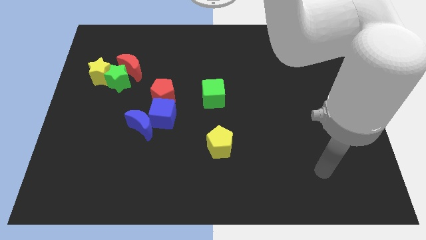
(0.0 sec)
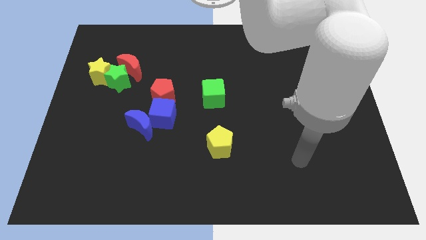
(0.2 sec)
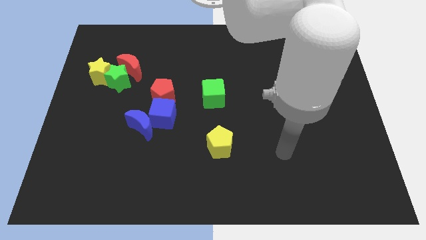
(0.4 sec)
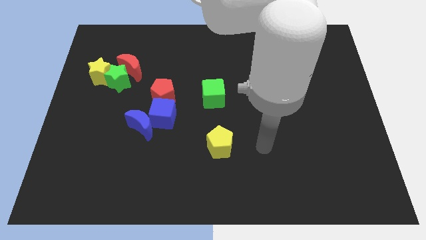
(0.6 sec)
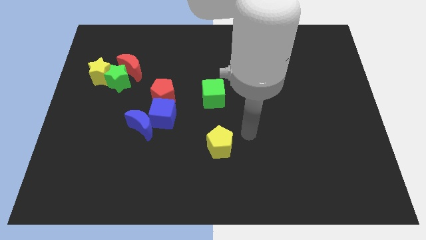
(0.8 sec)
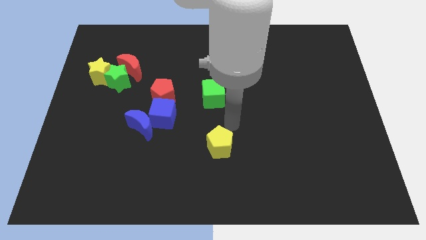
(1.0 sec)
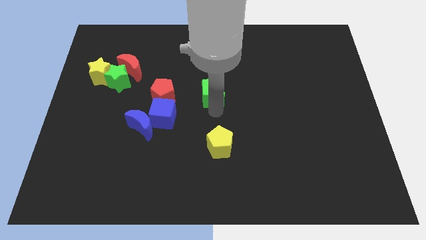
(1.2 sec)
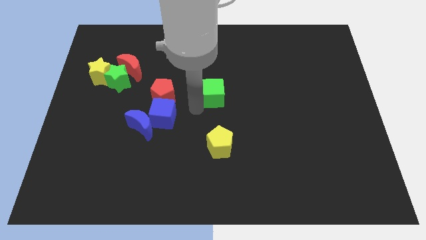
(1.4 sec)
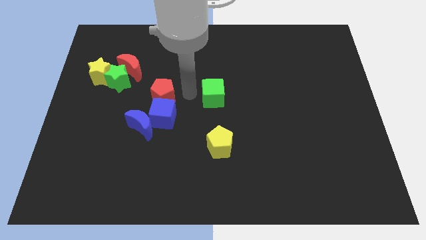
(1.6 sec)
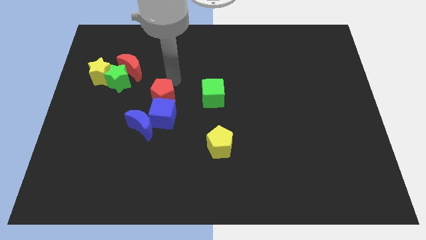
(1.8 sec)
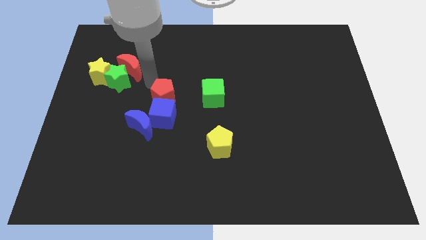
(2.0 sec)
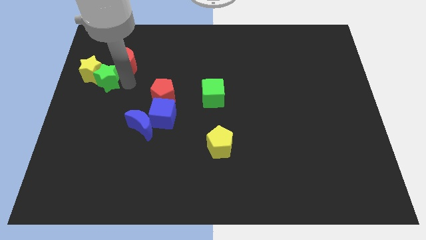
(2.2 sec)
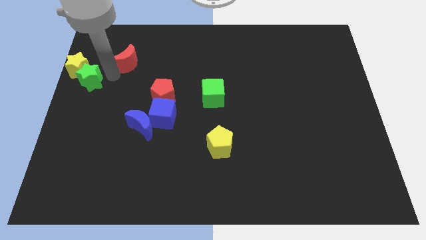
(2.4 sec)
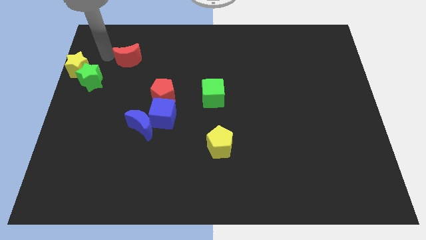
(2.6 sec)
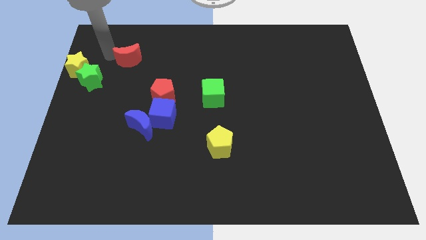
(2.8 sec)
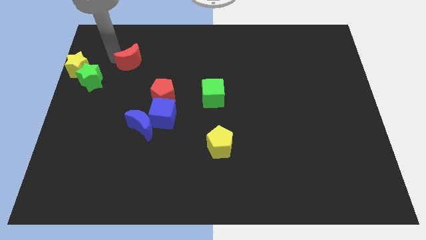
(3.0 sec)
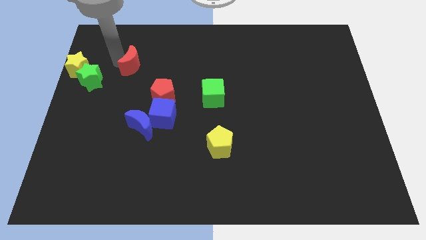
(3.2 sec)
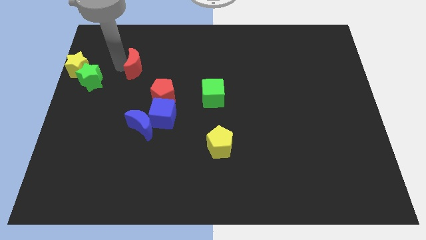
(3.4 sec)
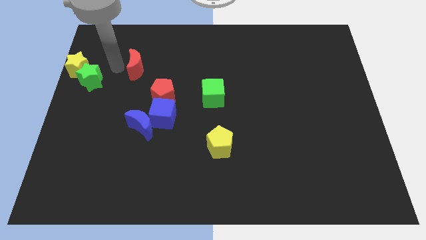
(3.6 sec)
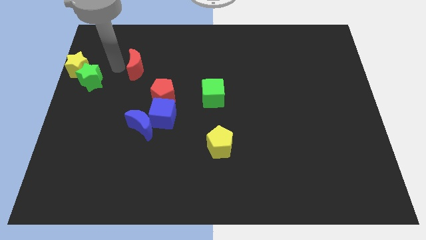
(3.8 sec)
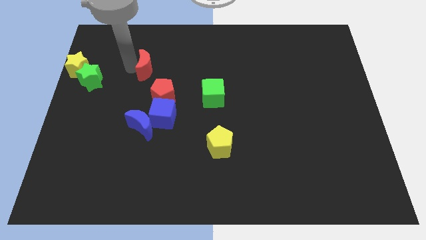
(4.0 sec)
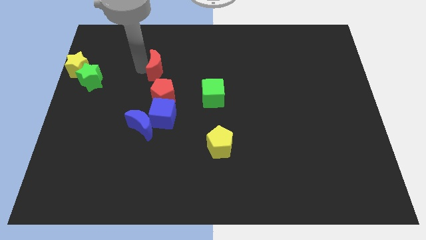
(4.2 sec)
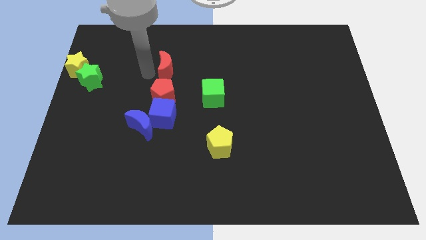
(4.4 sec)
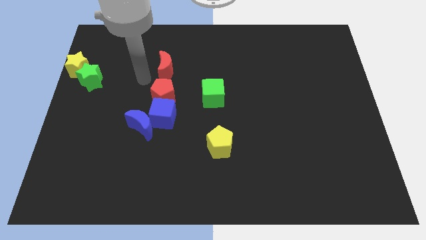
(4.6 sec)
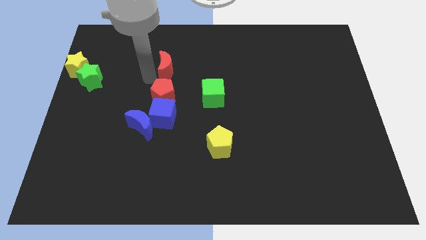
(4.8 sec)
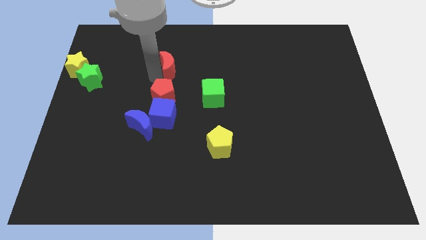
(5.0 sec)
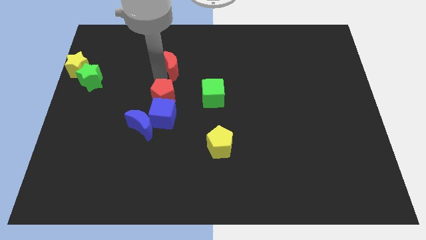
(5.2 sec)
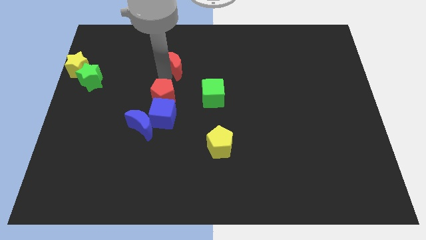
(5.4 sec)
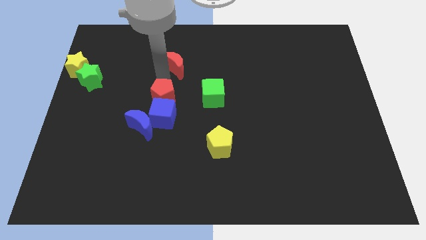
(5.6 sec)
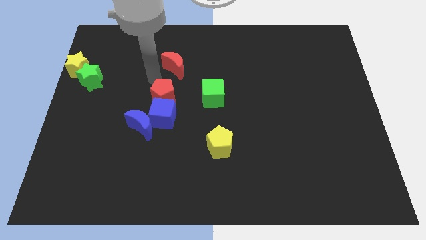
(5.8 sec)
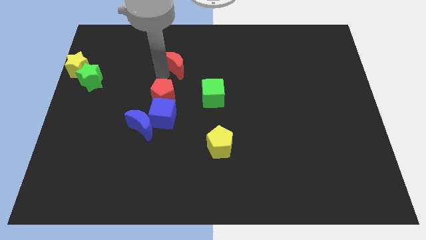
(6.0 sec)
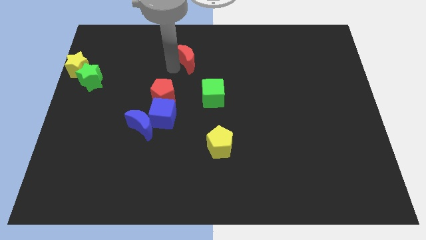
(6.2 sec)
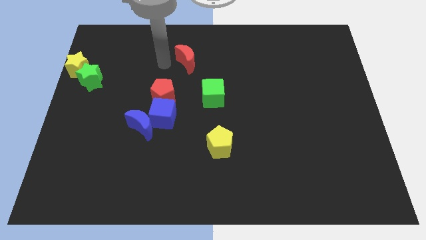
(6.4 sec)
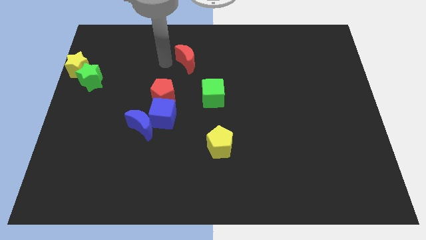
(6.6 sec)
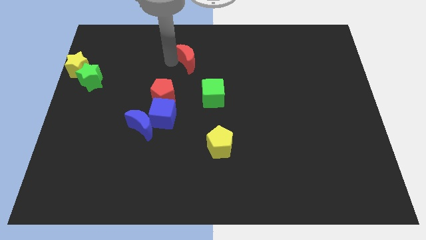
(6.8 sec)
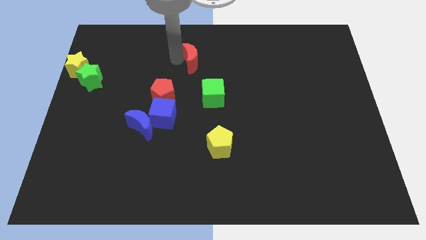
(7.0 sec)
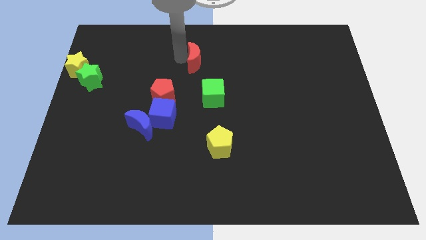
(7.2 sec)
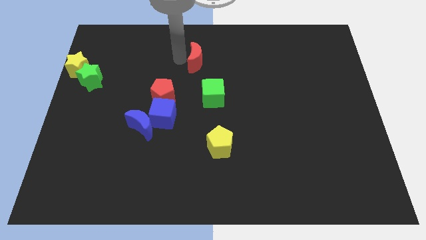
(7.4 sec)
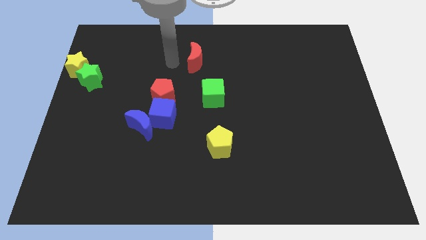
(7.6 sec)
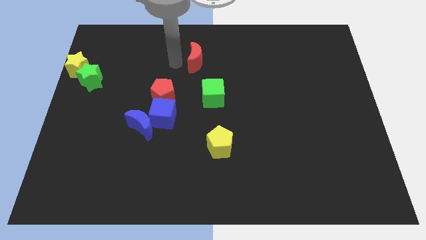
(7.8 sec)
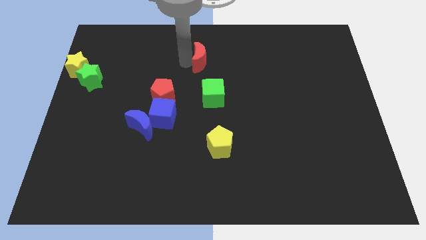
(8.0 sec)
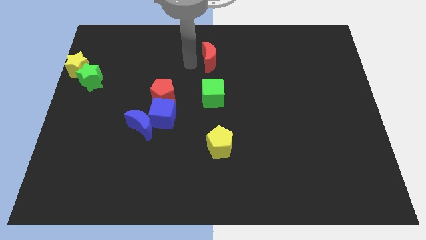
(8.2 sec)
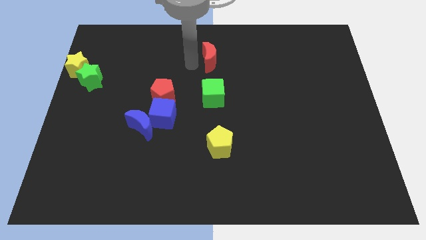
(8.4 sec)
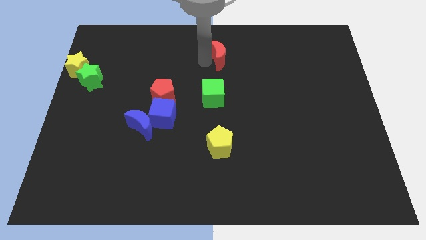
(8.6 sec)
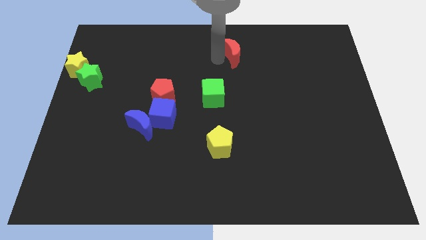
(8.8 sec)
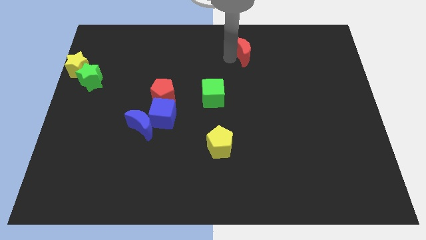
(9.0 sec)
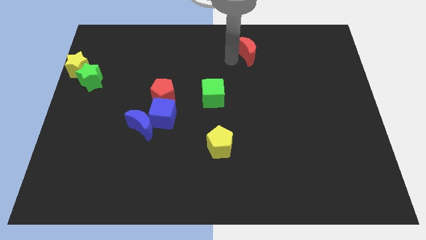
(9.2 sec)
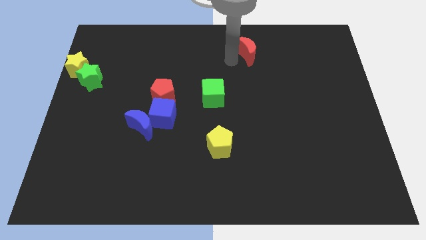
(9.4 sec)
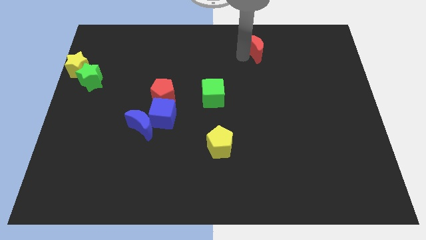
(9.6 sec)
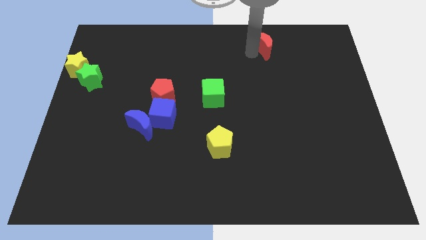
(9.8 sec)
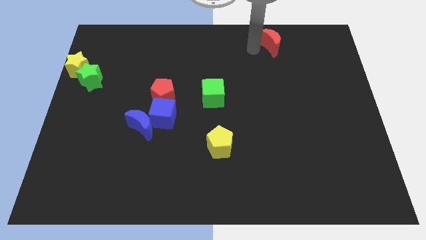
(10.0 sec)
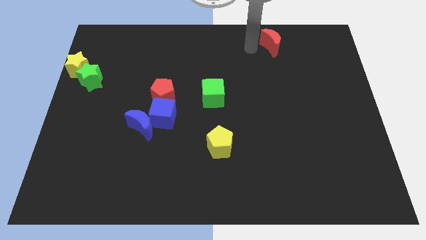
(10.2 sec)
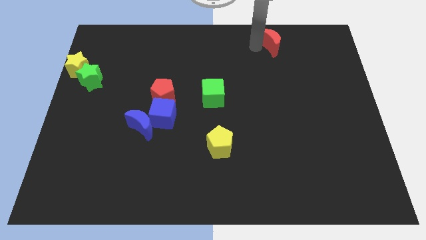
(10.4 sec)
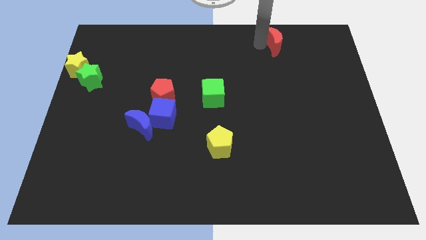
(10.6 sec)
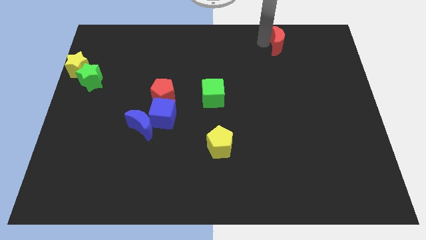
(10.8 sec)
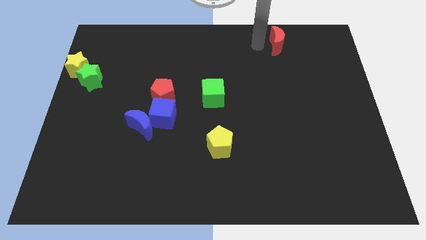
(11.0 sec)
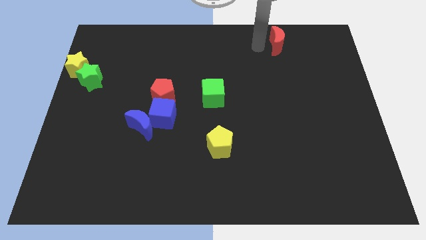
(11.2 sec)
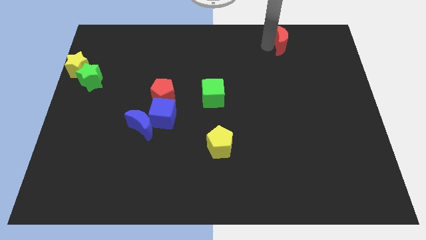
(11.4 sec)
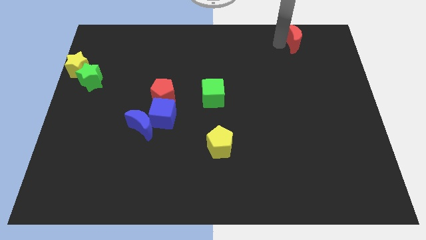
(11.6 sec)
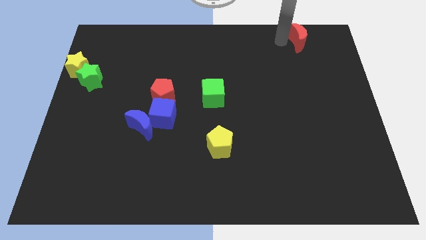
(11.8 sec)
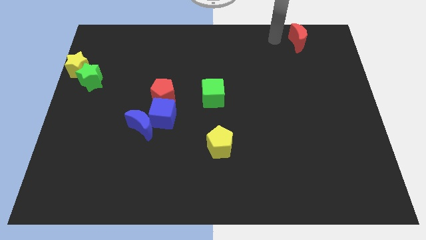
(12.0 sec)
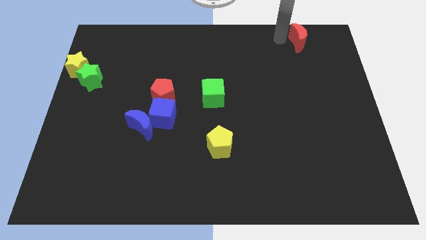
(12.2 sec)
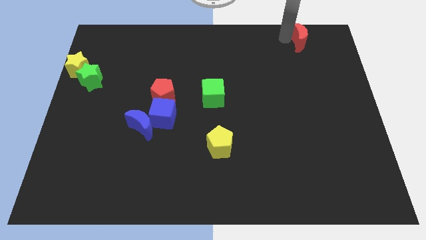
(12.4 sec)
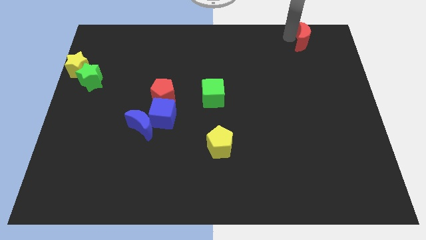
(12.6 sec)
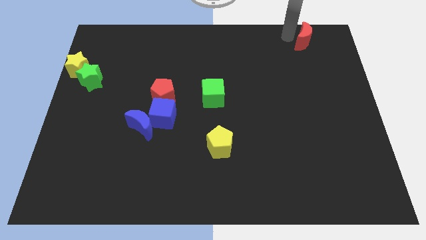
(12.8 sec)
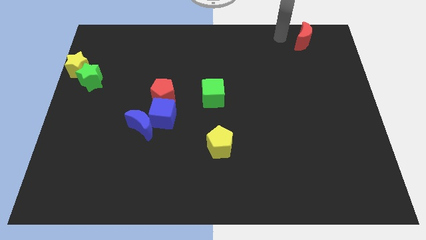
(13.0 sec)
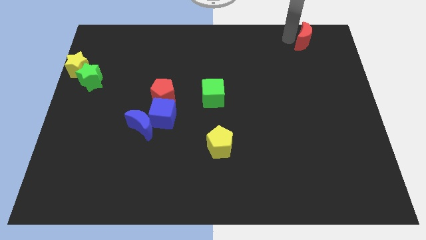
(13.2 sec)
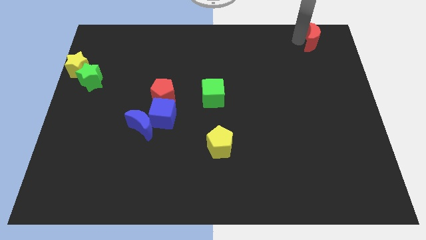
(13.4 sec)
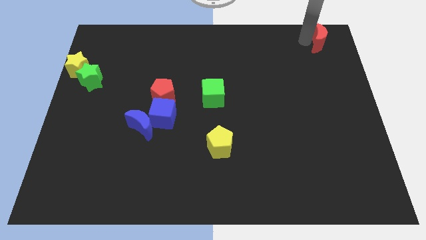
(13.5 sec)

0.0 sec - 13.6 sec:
put the red moon to the upper right corner
